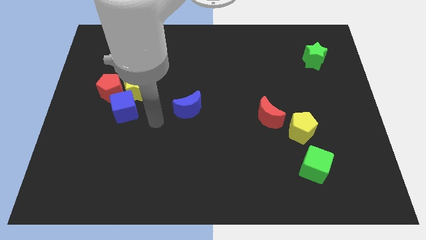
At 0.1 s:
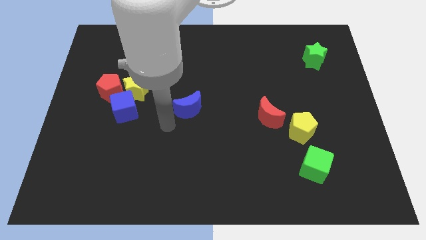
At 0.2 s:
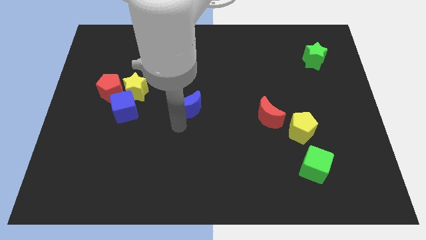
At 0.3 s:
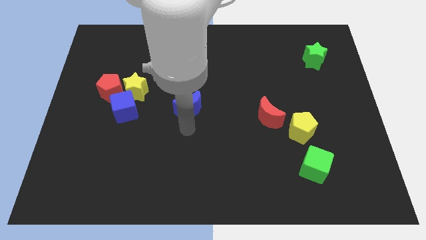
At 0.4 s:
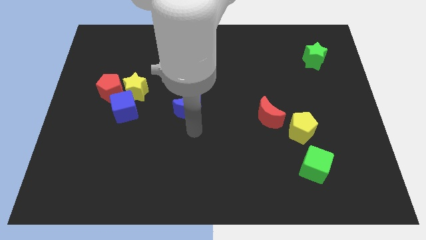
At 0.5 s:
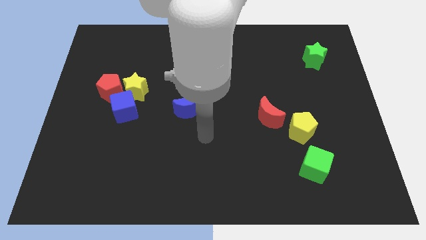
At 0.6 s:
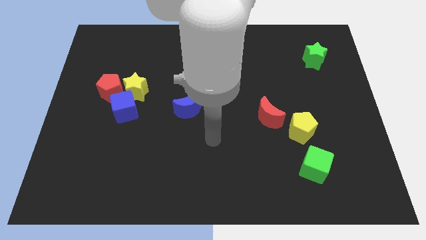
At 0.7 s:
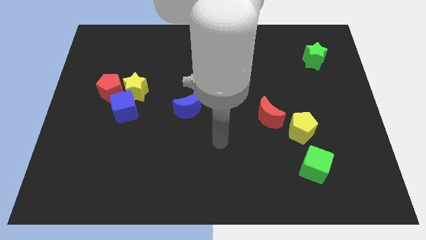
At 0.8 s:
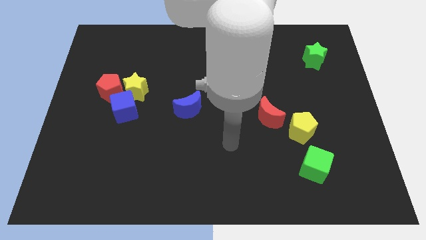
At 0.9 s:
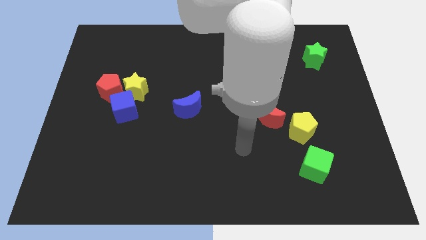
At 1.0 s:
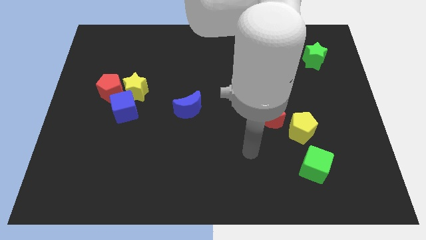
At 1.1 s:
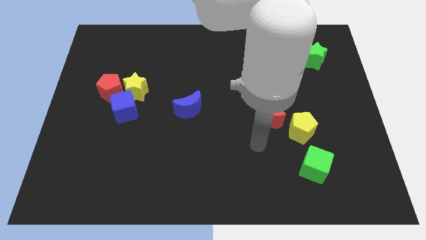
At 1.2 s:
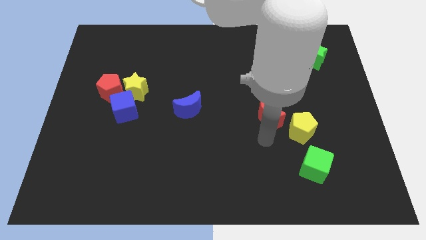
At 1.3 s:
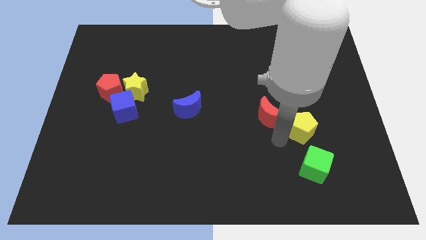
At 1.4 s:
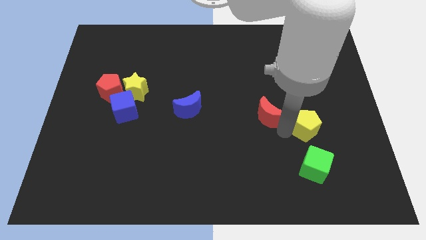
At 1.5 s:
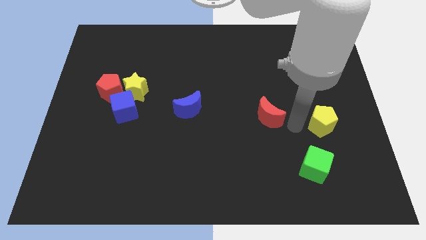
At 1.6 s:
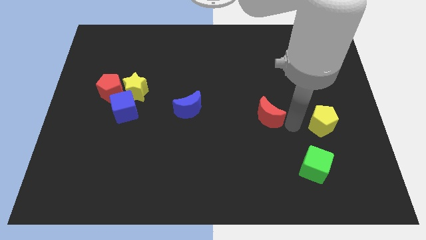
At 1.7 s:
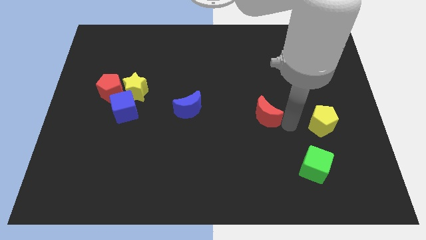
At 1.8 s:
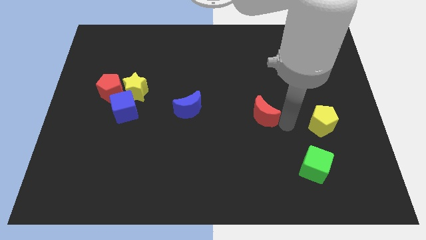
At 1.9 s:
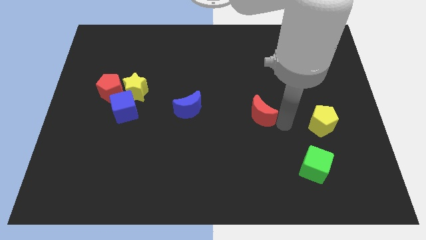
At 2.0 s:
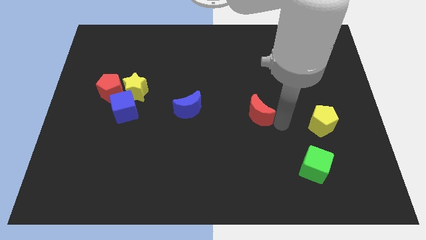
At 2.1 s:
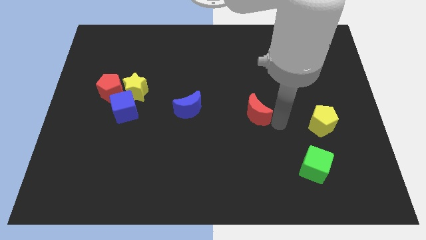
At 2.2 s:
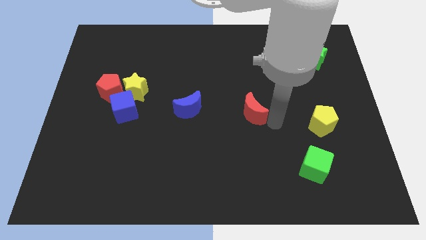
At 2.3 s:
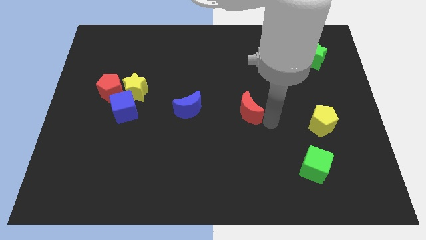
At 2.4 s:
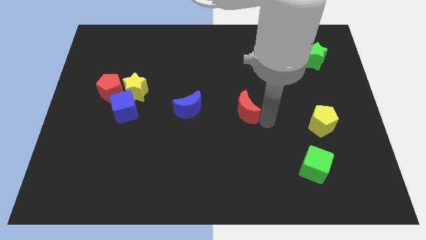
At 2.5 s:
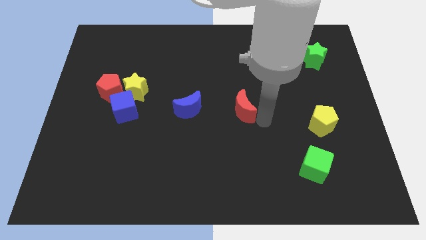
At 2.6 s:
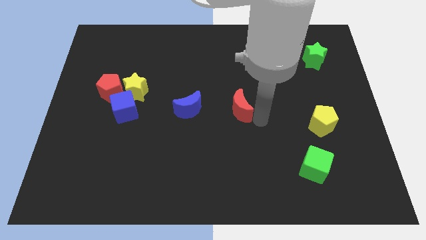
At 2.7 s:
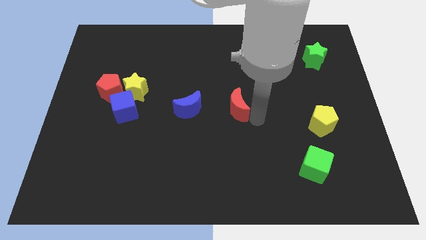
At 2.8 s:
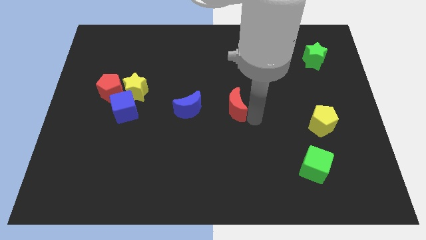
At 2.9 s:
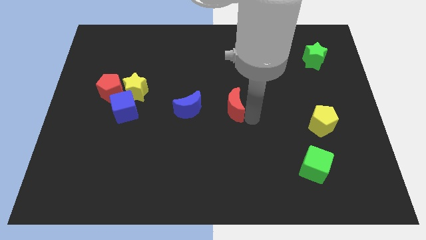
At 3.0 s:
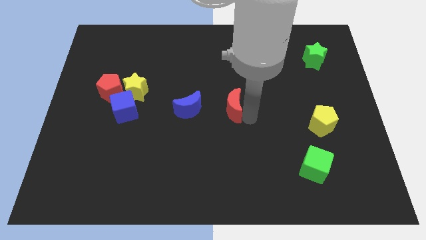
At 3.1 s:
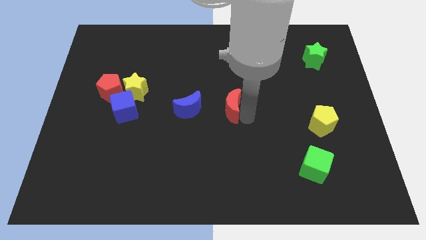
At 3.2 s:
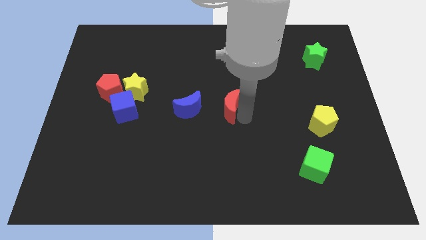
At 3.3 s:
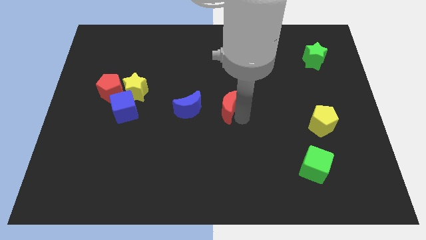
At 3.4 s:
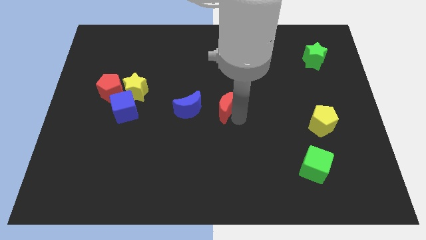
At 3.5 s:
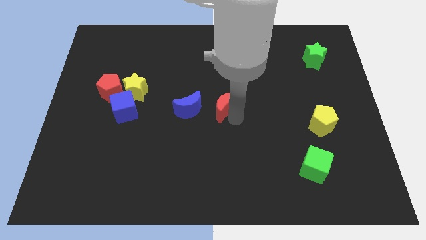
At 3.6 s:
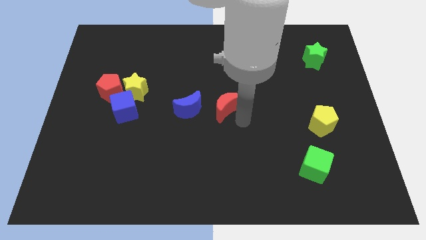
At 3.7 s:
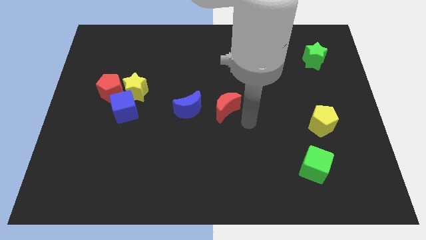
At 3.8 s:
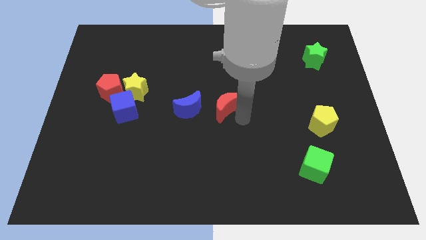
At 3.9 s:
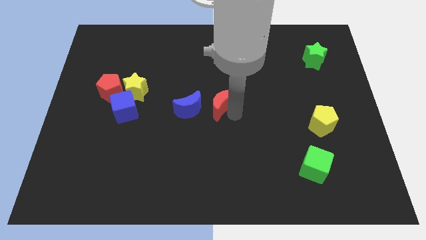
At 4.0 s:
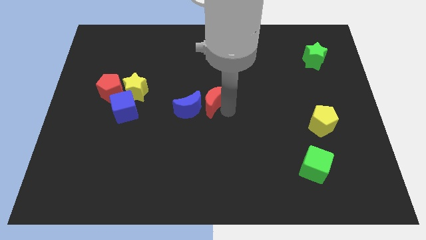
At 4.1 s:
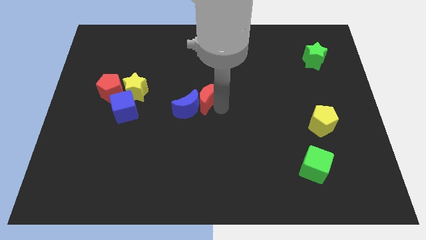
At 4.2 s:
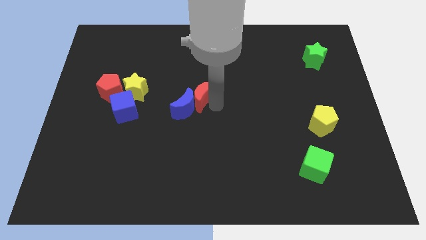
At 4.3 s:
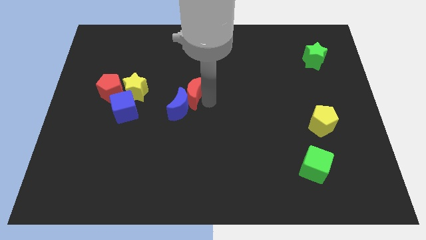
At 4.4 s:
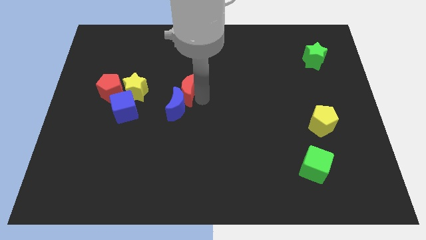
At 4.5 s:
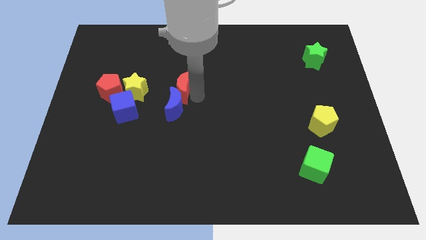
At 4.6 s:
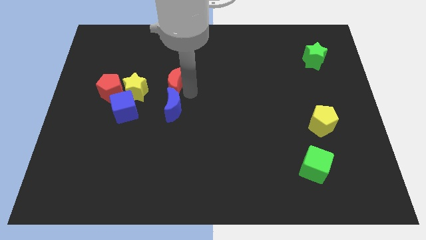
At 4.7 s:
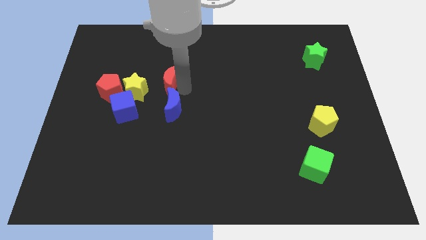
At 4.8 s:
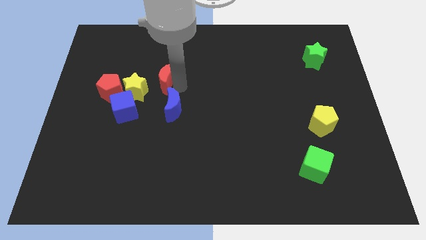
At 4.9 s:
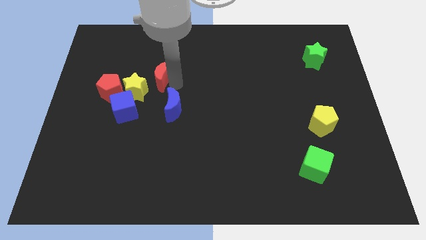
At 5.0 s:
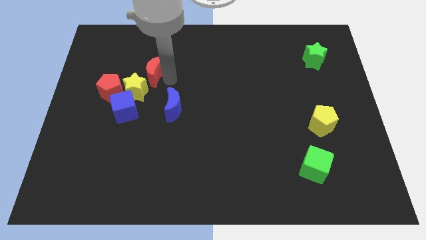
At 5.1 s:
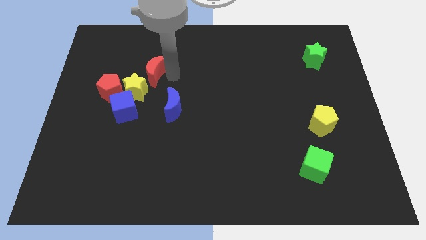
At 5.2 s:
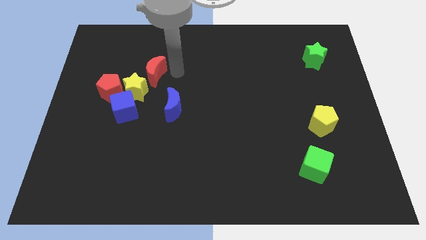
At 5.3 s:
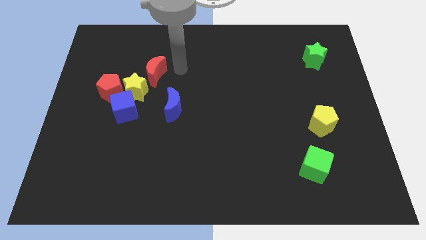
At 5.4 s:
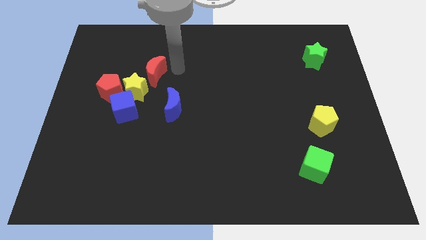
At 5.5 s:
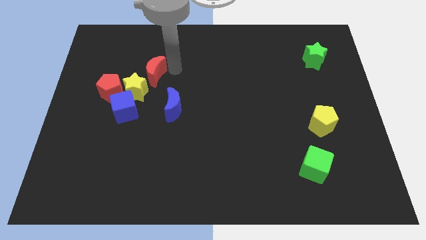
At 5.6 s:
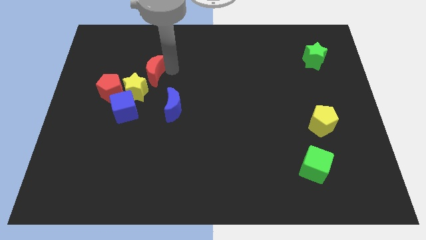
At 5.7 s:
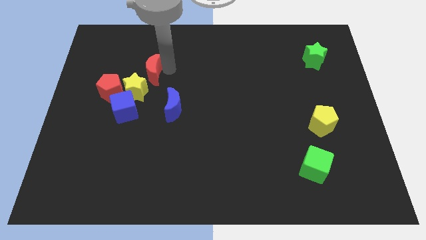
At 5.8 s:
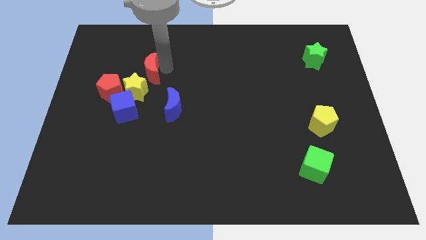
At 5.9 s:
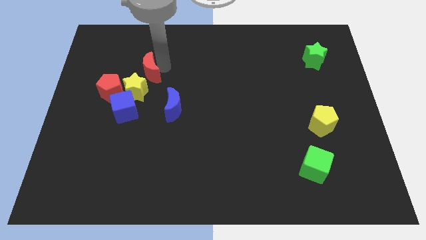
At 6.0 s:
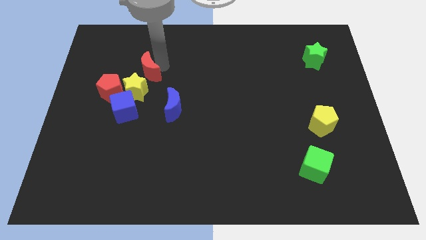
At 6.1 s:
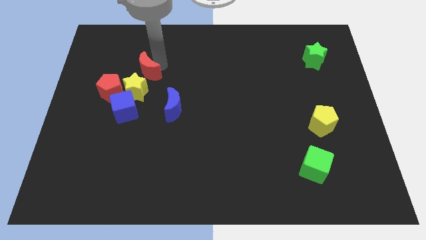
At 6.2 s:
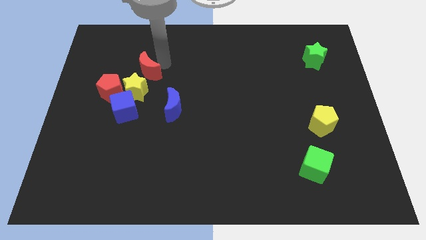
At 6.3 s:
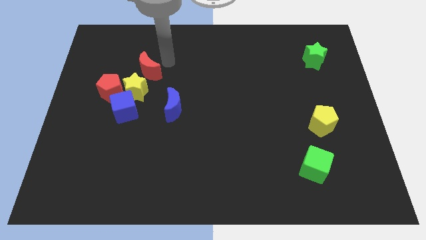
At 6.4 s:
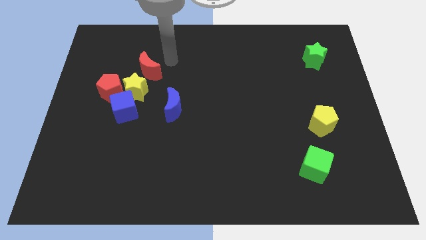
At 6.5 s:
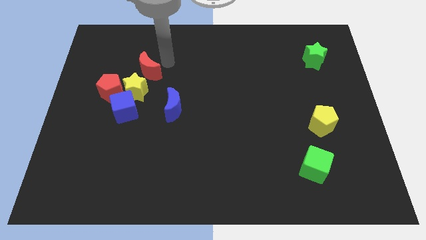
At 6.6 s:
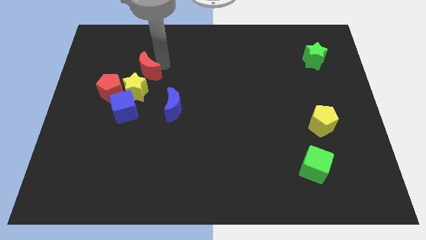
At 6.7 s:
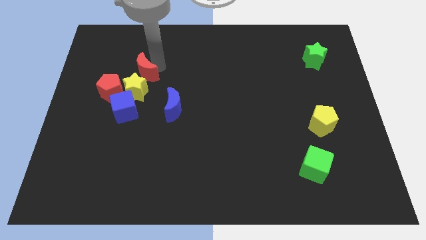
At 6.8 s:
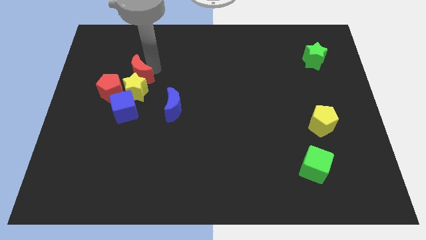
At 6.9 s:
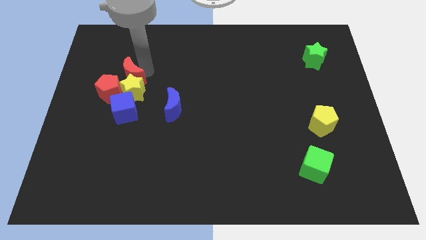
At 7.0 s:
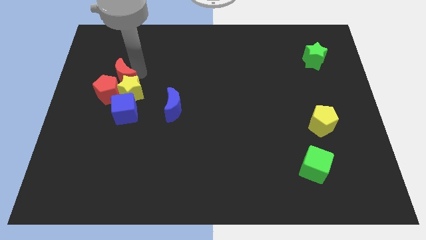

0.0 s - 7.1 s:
put the red moon towards the red pentagon
